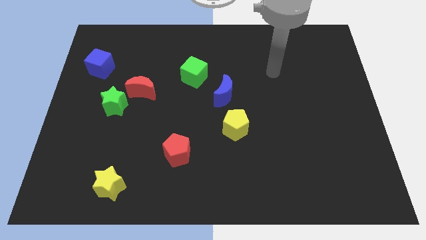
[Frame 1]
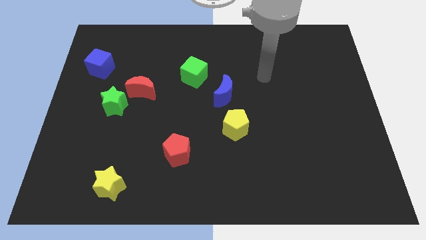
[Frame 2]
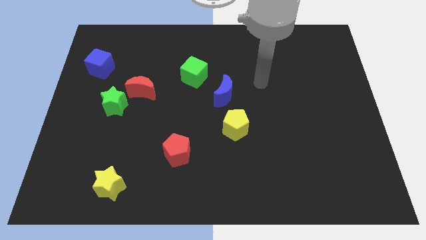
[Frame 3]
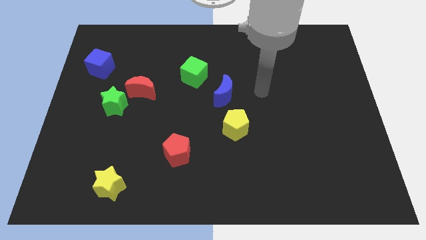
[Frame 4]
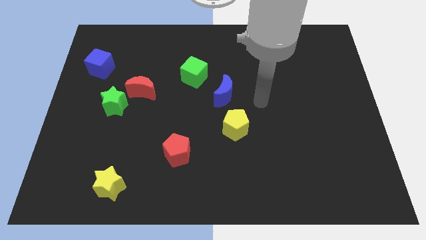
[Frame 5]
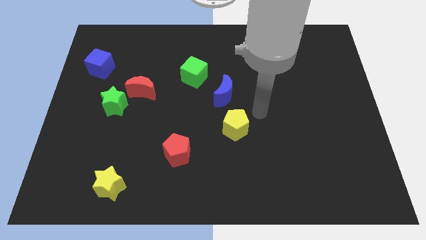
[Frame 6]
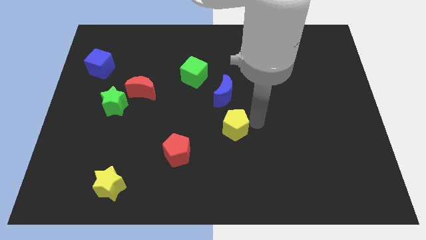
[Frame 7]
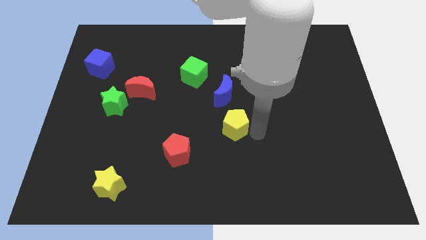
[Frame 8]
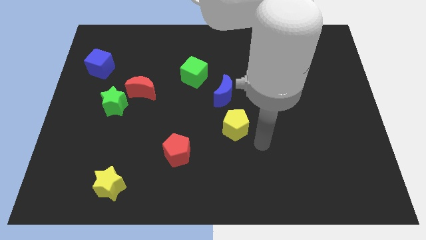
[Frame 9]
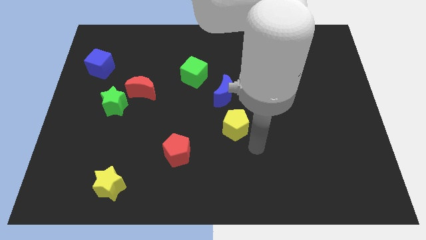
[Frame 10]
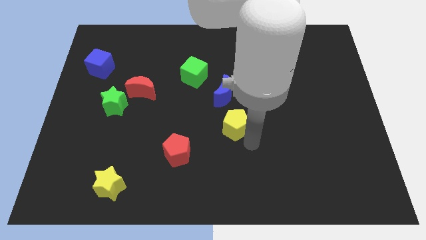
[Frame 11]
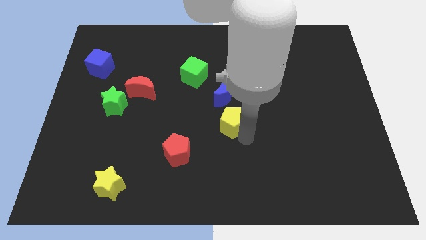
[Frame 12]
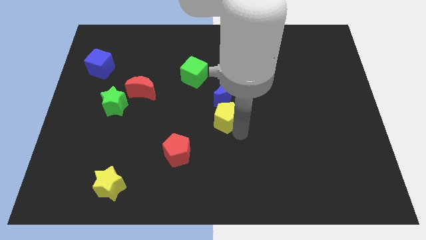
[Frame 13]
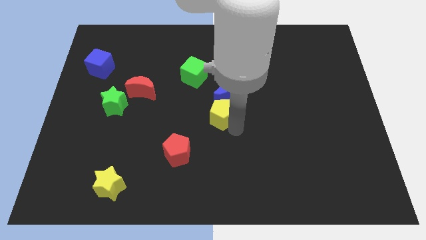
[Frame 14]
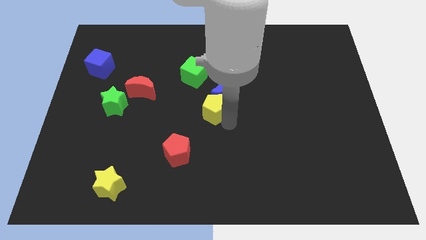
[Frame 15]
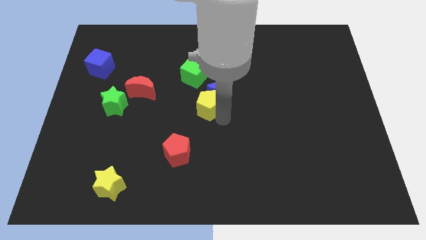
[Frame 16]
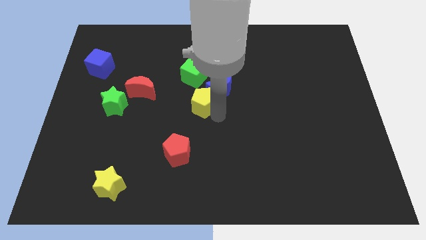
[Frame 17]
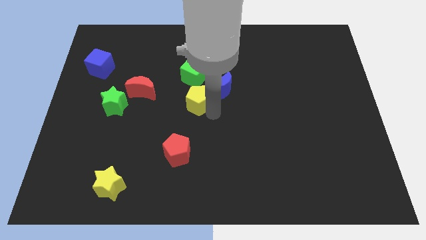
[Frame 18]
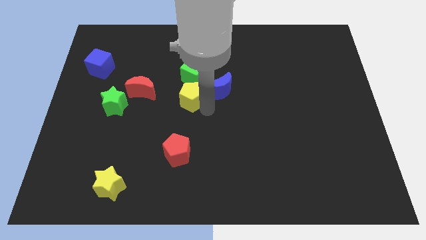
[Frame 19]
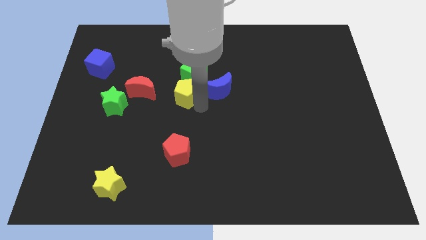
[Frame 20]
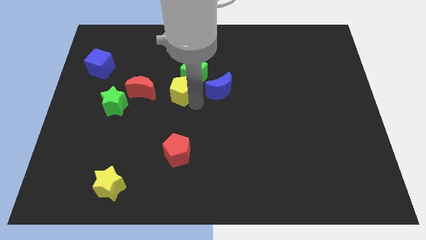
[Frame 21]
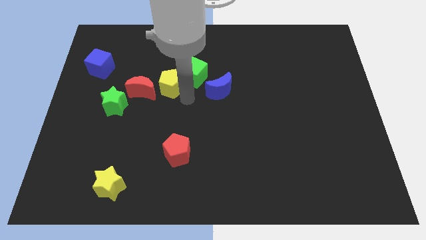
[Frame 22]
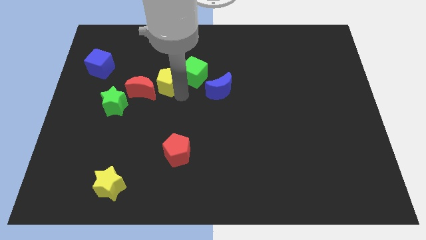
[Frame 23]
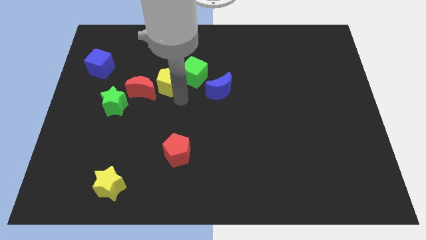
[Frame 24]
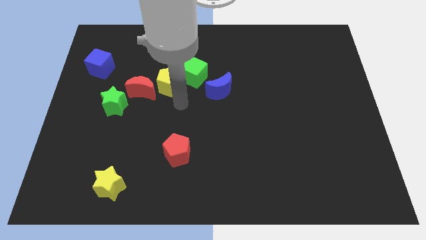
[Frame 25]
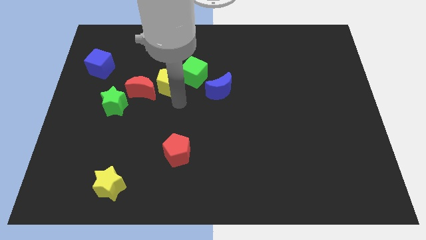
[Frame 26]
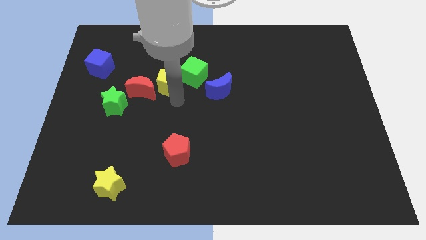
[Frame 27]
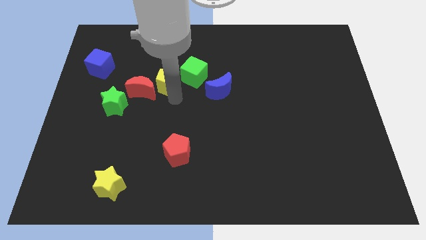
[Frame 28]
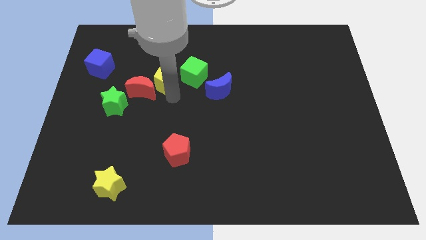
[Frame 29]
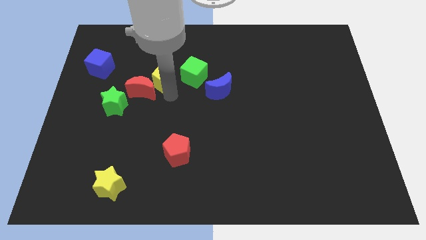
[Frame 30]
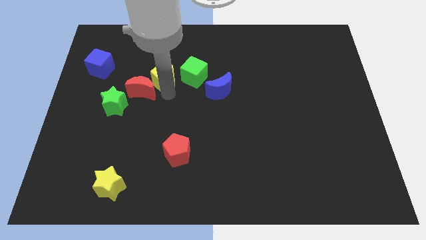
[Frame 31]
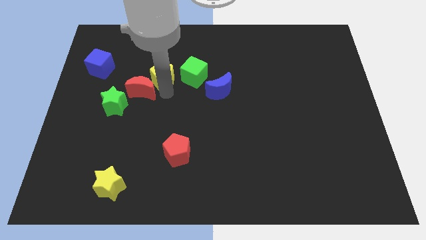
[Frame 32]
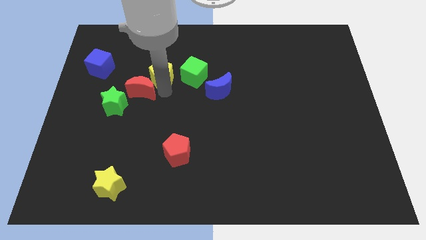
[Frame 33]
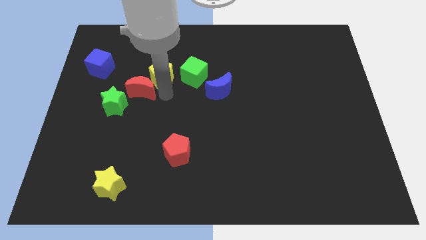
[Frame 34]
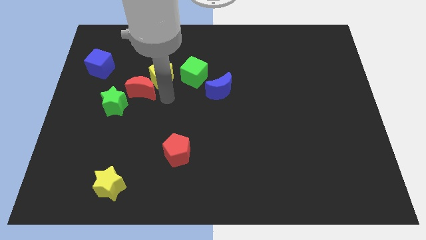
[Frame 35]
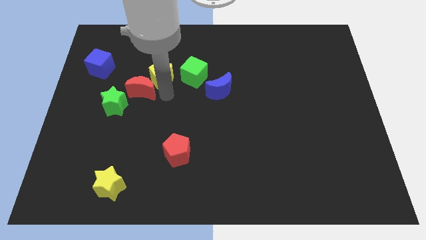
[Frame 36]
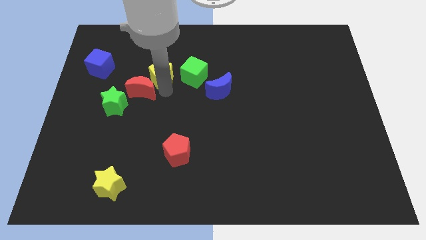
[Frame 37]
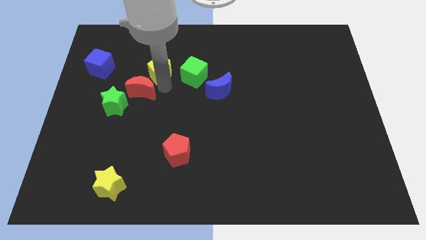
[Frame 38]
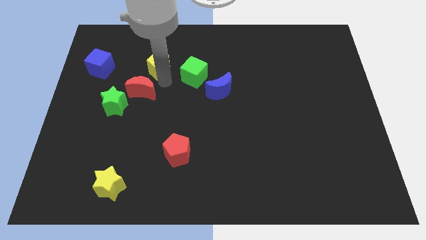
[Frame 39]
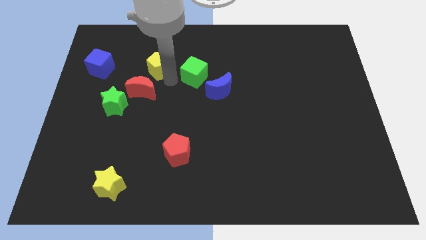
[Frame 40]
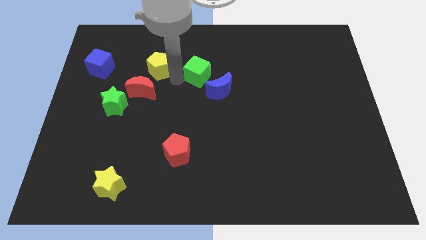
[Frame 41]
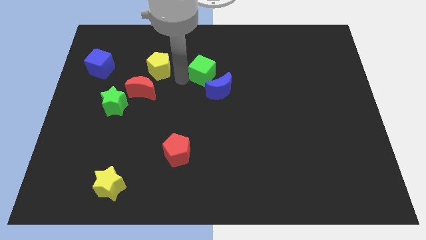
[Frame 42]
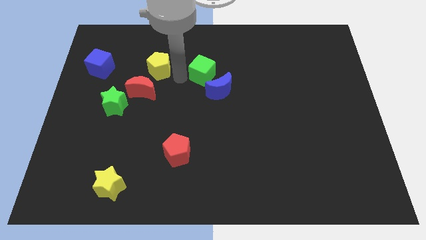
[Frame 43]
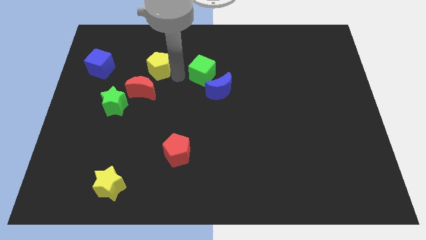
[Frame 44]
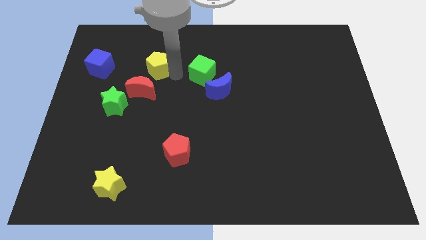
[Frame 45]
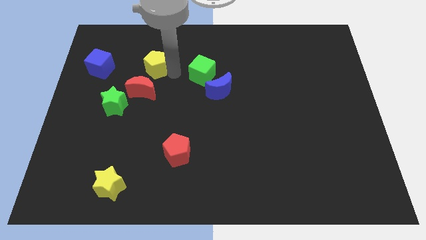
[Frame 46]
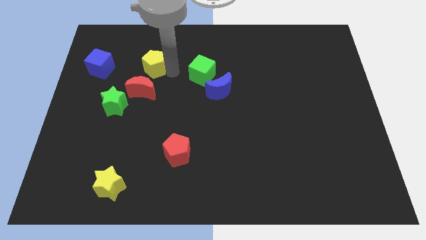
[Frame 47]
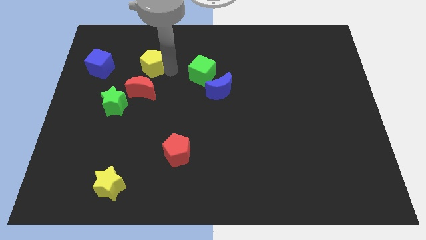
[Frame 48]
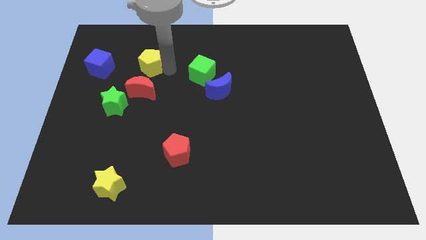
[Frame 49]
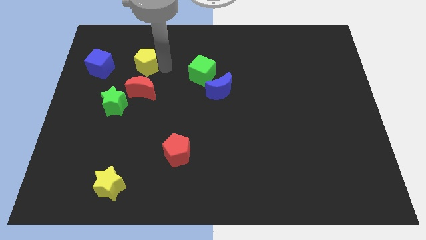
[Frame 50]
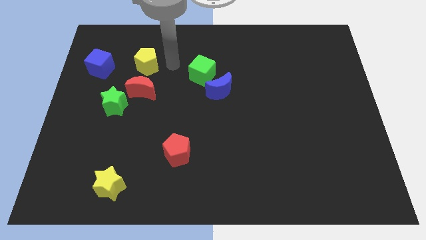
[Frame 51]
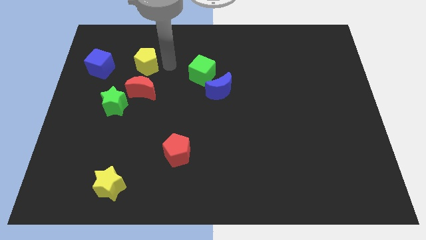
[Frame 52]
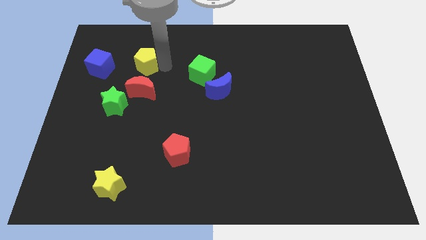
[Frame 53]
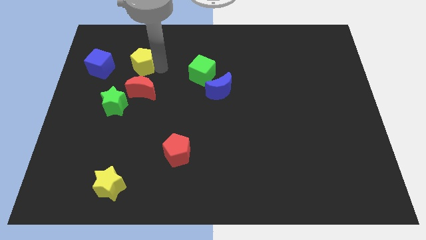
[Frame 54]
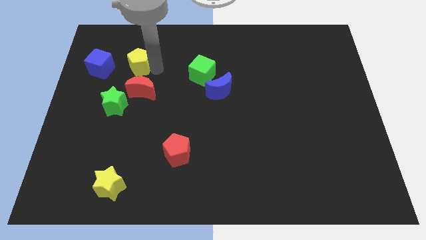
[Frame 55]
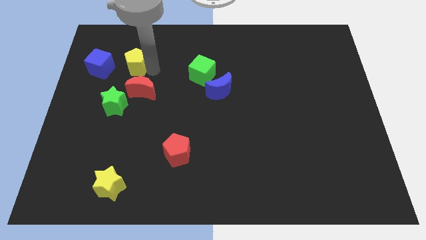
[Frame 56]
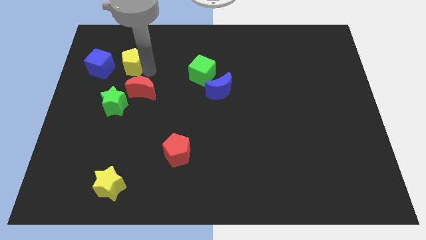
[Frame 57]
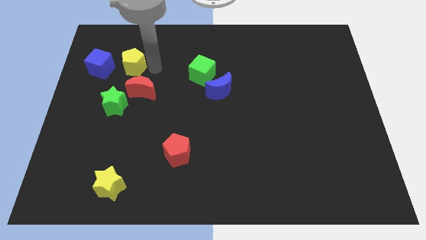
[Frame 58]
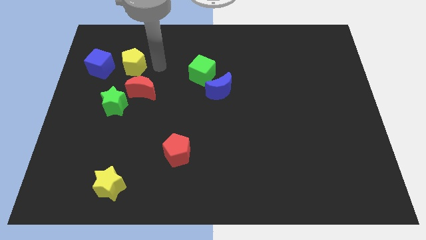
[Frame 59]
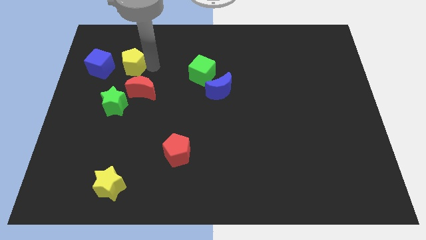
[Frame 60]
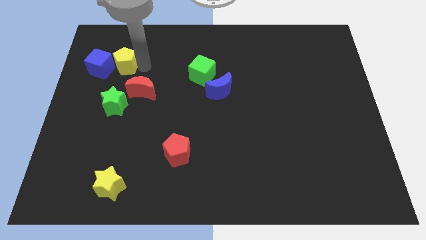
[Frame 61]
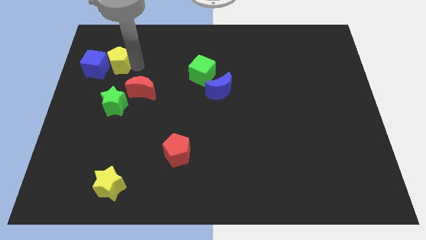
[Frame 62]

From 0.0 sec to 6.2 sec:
push the yellow pentagon next to the blue cube
